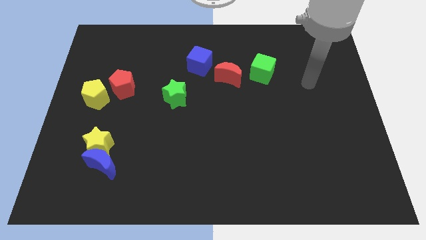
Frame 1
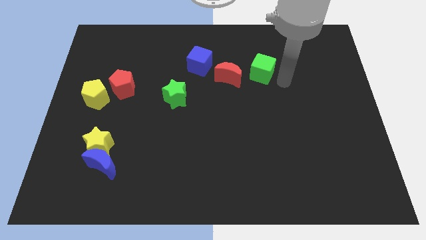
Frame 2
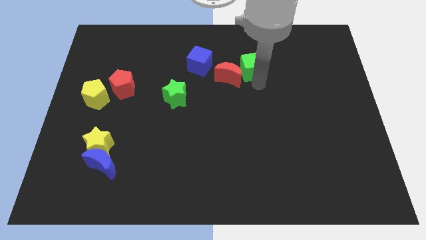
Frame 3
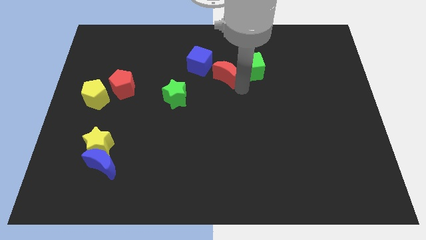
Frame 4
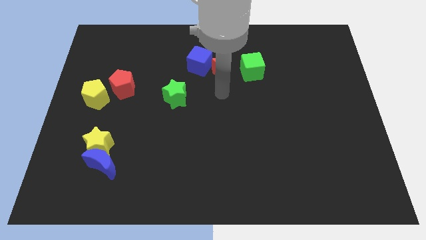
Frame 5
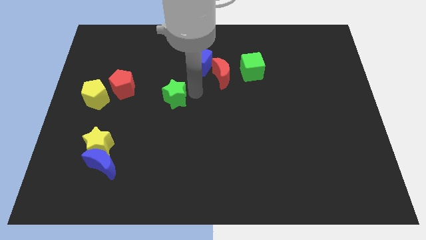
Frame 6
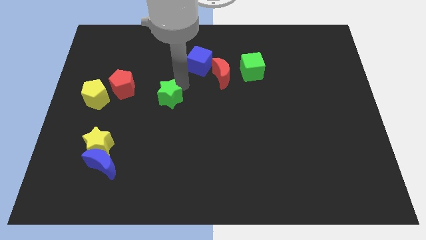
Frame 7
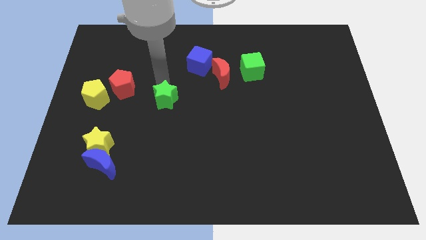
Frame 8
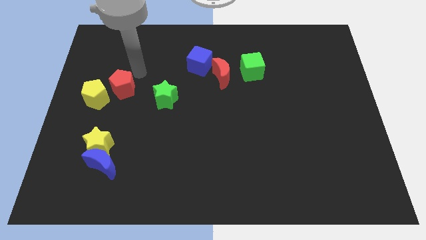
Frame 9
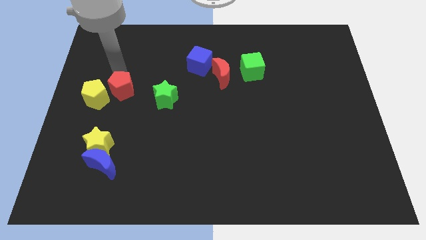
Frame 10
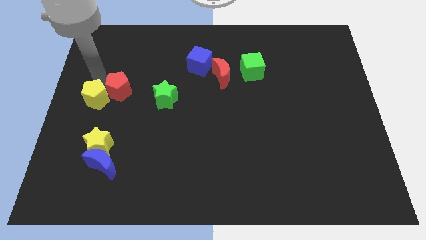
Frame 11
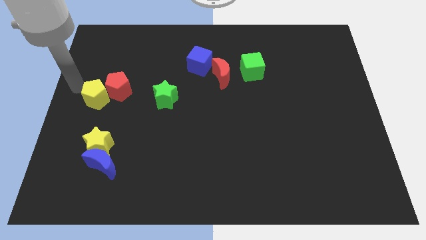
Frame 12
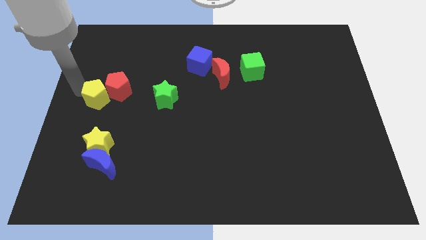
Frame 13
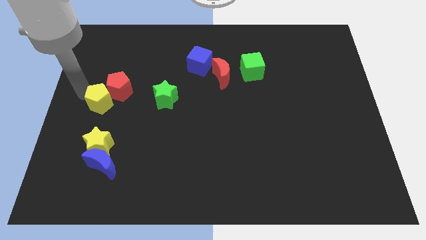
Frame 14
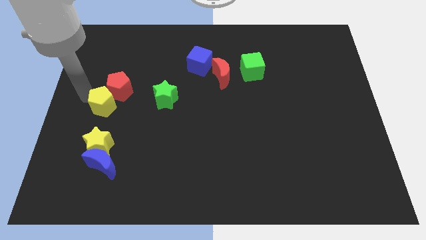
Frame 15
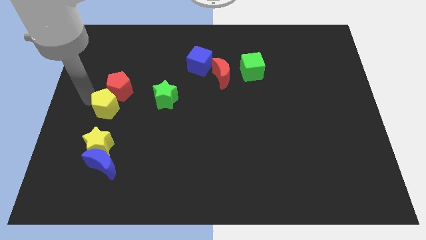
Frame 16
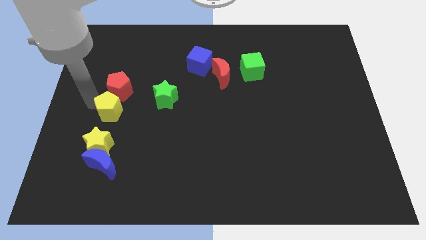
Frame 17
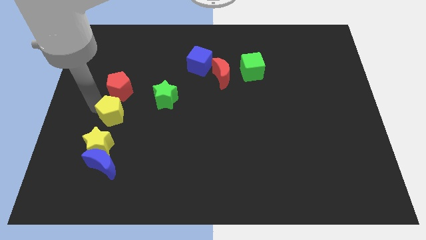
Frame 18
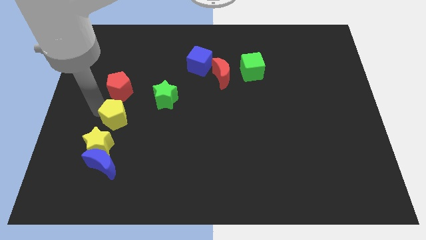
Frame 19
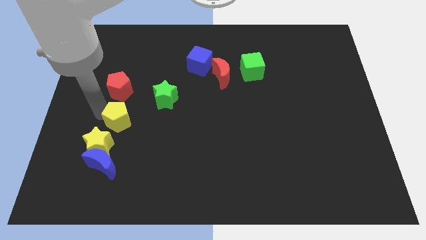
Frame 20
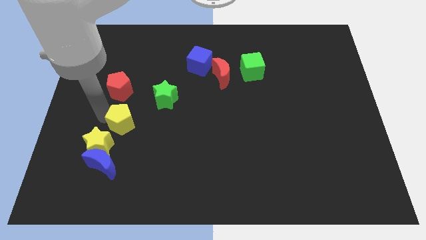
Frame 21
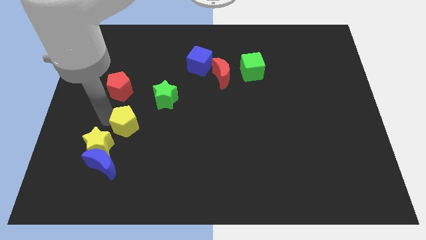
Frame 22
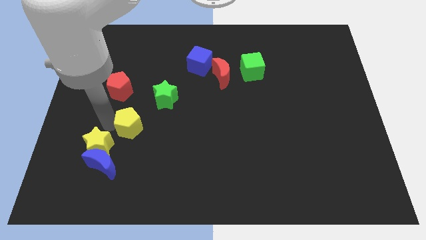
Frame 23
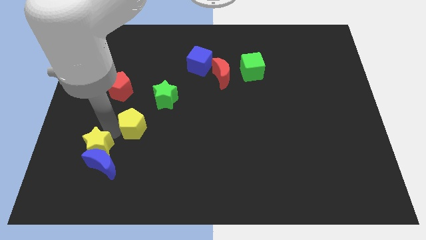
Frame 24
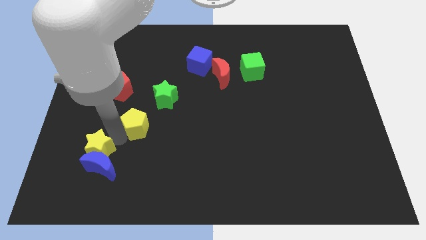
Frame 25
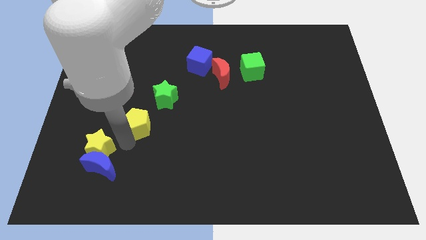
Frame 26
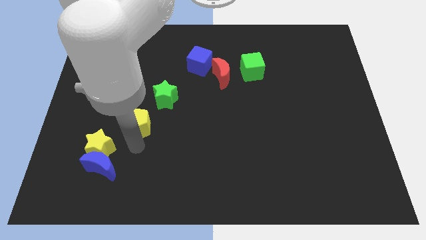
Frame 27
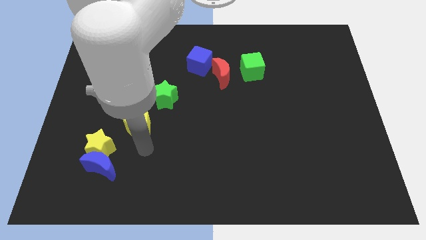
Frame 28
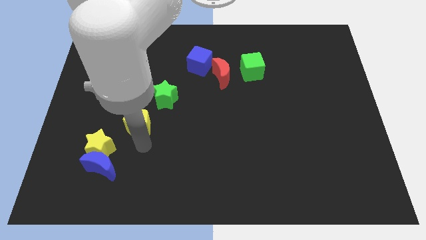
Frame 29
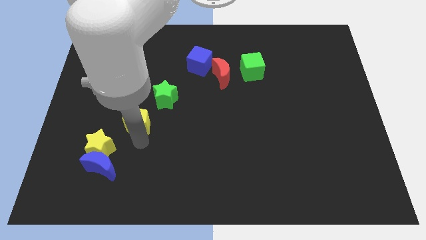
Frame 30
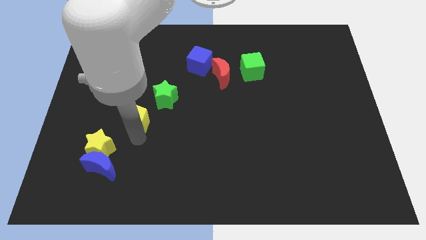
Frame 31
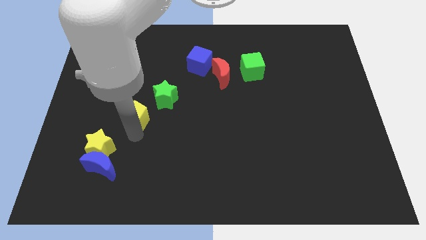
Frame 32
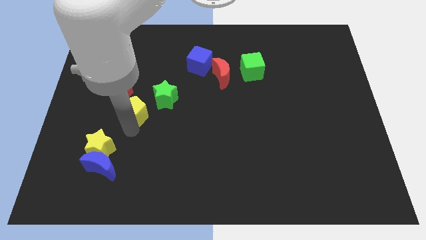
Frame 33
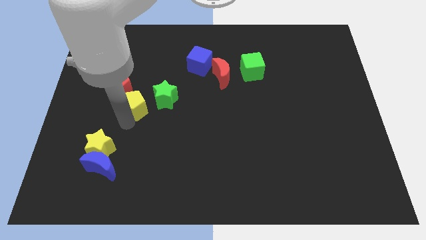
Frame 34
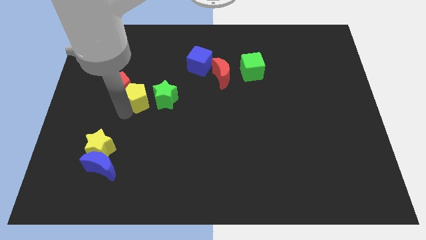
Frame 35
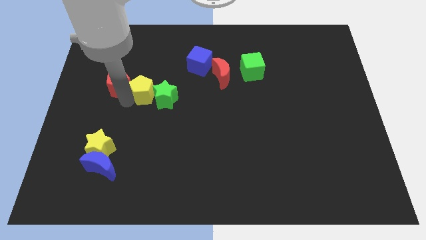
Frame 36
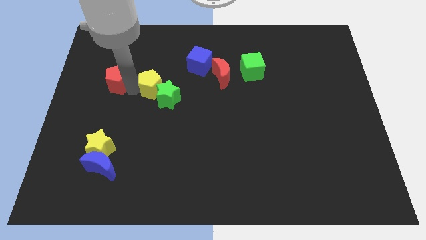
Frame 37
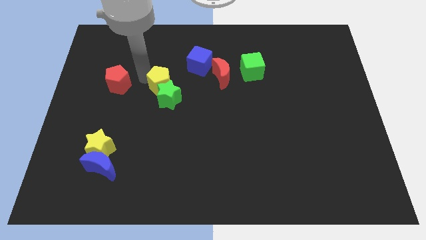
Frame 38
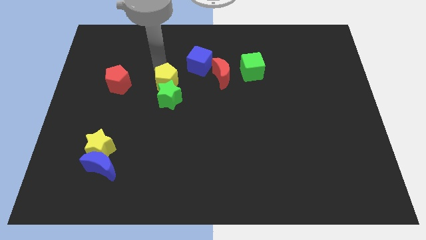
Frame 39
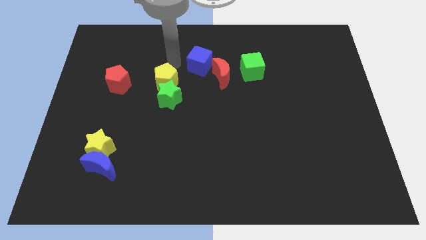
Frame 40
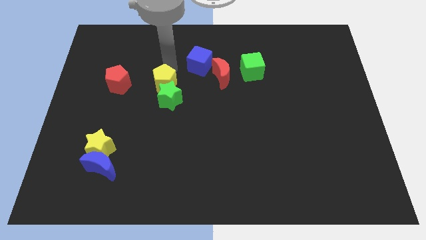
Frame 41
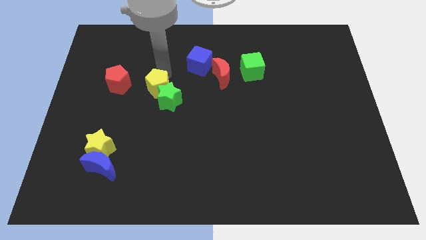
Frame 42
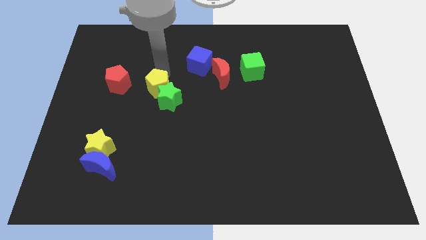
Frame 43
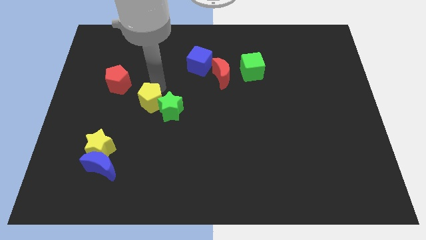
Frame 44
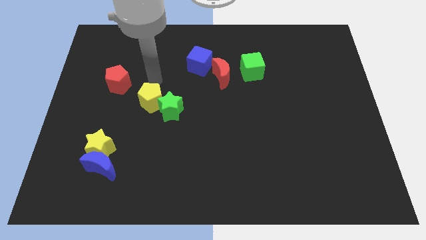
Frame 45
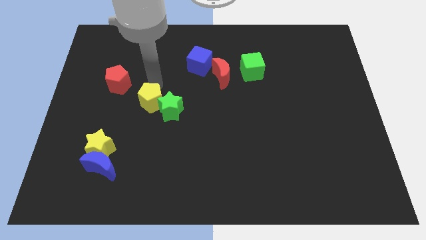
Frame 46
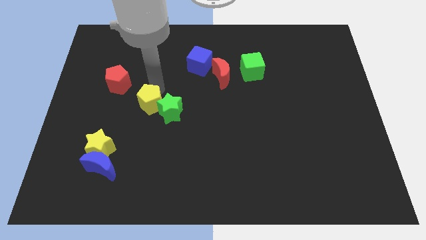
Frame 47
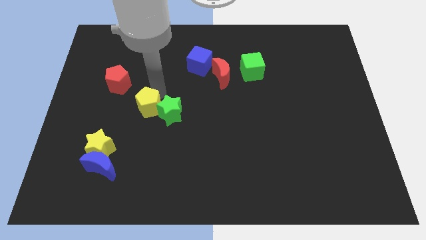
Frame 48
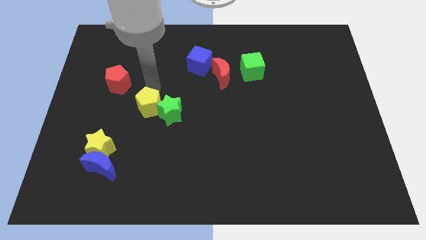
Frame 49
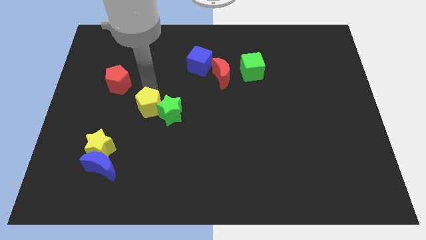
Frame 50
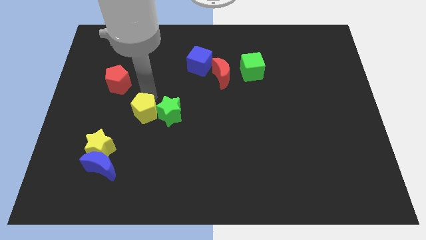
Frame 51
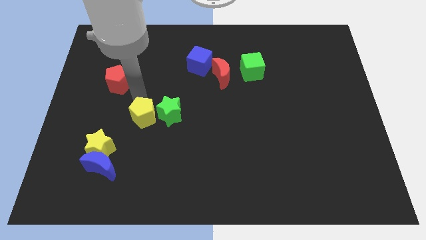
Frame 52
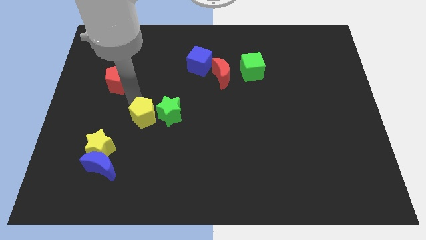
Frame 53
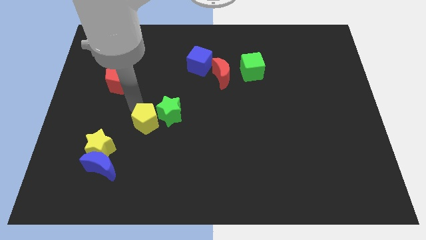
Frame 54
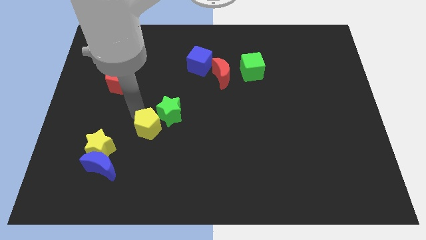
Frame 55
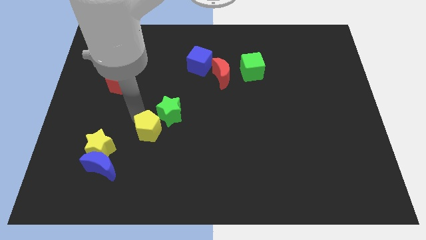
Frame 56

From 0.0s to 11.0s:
put the yellow pentagon to the bottom of the green star

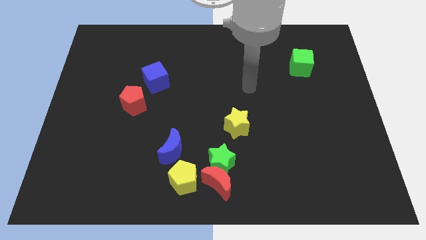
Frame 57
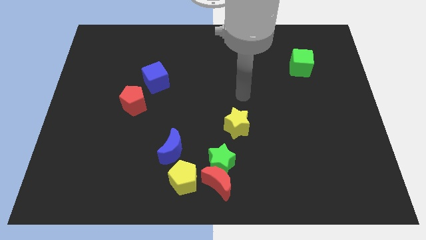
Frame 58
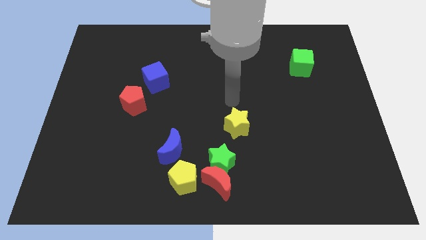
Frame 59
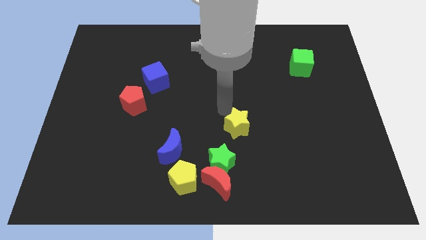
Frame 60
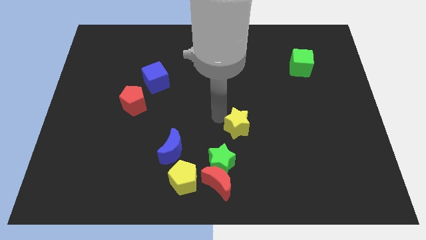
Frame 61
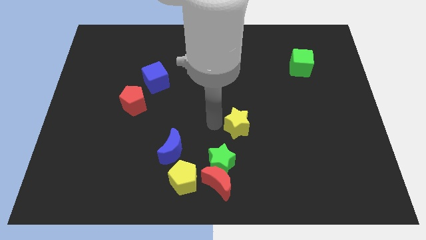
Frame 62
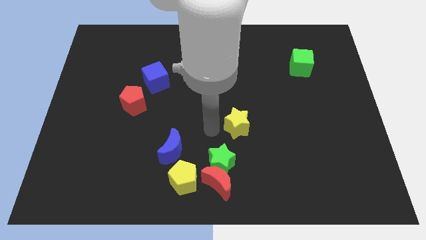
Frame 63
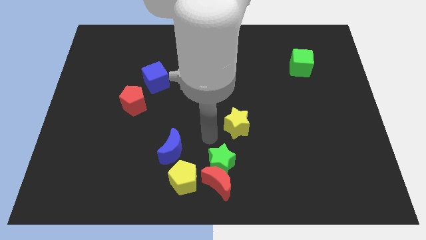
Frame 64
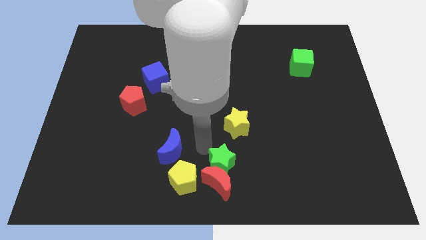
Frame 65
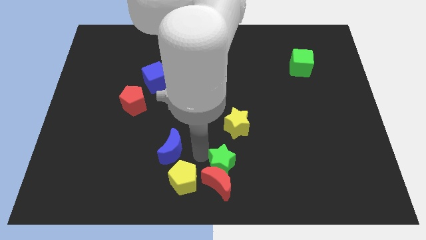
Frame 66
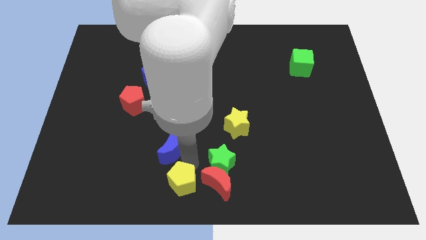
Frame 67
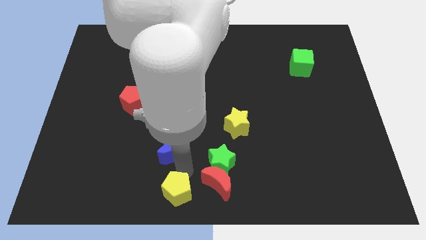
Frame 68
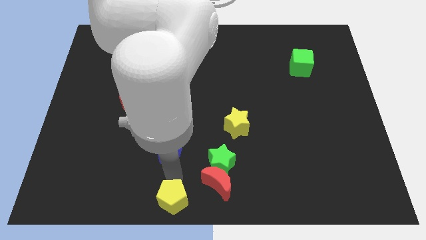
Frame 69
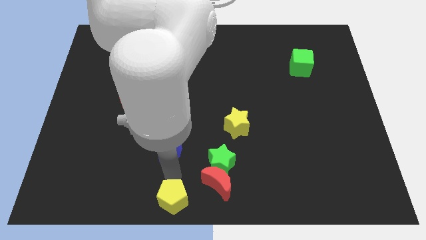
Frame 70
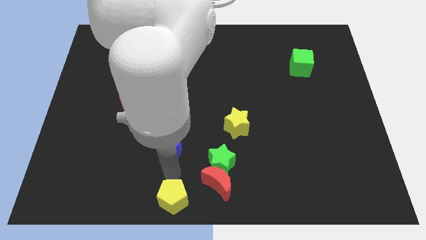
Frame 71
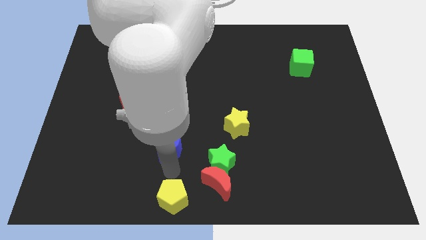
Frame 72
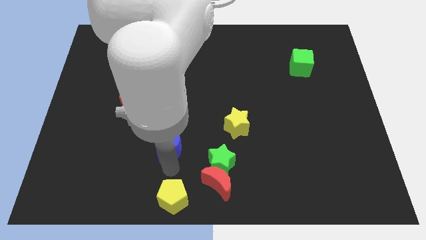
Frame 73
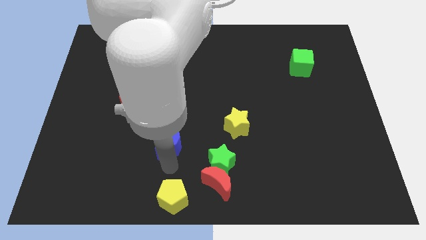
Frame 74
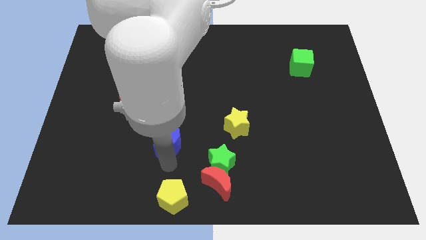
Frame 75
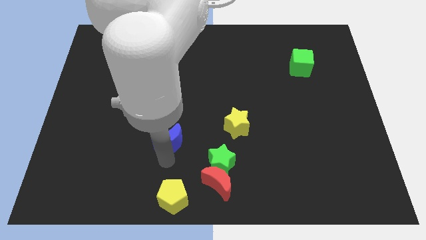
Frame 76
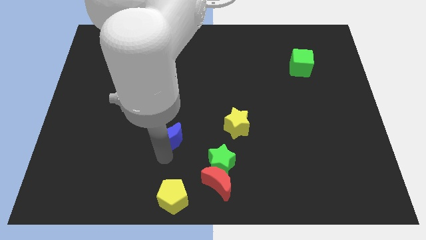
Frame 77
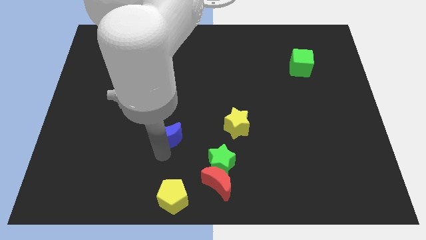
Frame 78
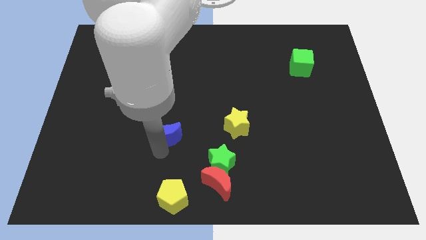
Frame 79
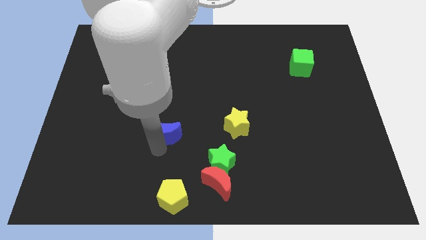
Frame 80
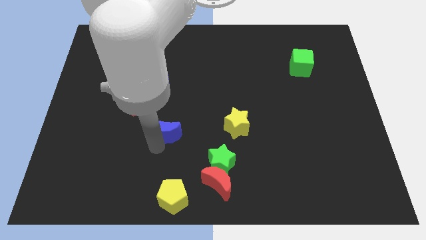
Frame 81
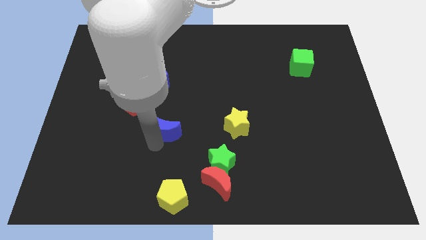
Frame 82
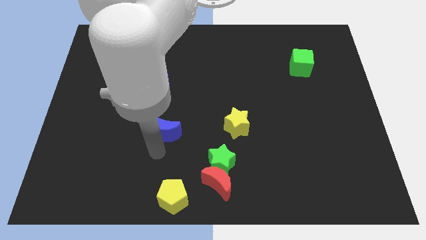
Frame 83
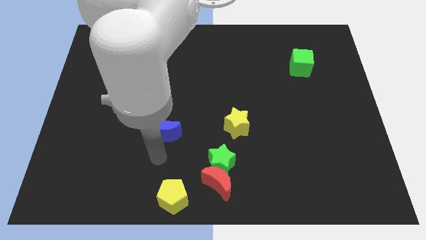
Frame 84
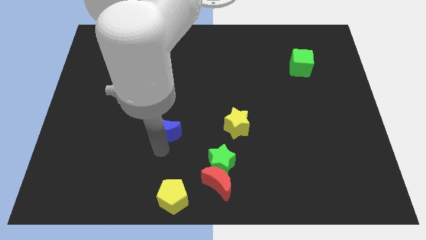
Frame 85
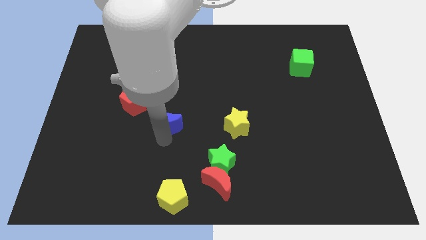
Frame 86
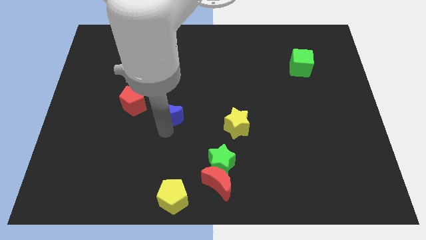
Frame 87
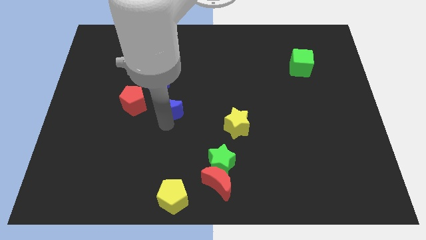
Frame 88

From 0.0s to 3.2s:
move the blue moon to the bottom right side of the blue cube
